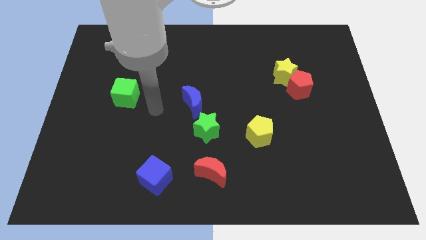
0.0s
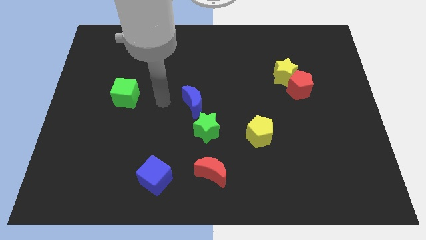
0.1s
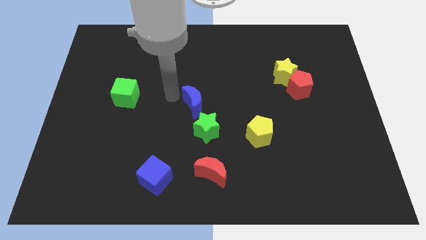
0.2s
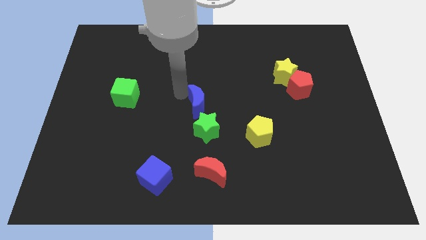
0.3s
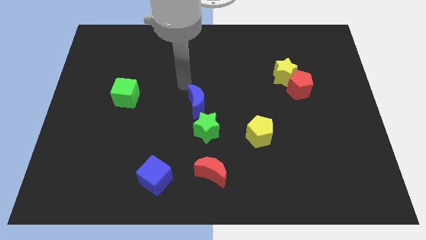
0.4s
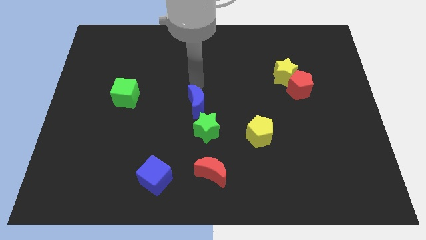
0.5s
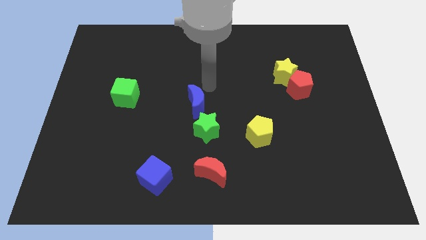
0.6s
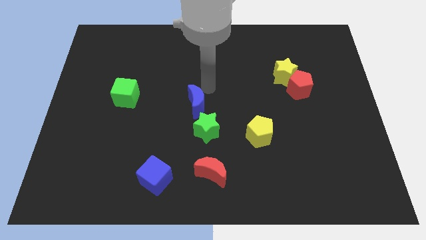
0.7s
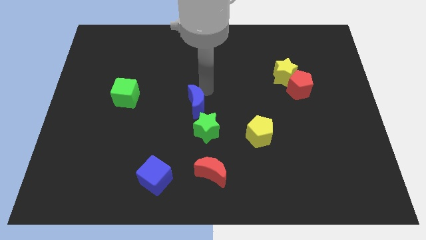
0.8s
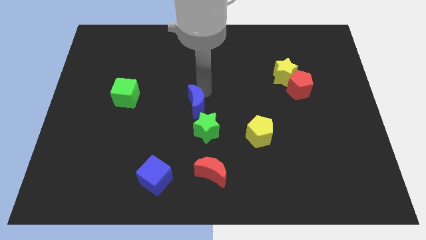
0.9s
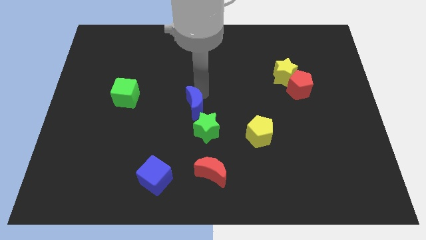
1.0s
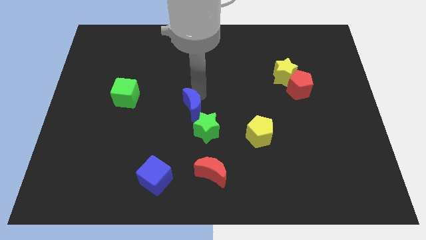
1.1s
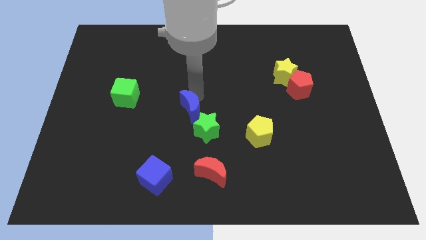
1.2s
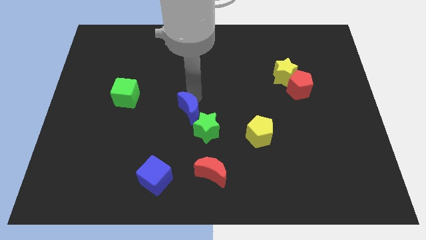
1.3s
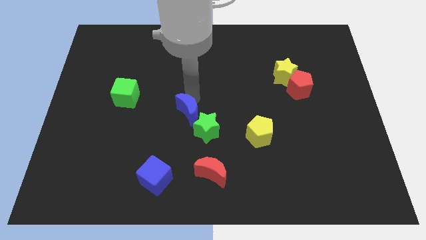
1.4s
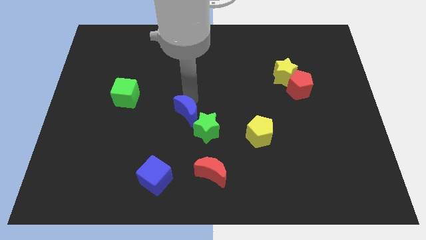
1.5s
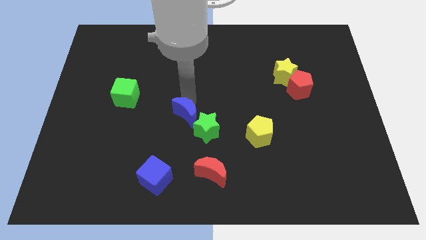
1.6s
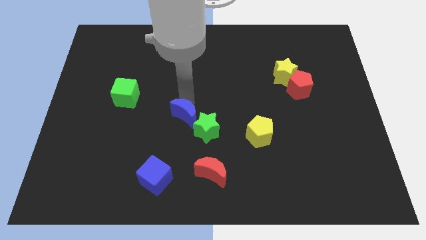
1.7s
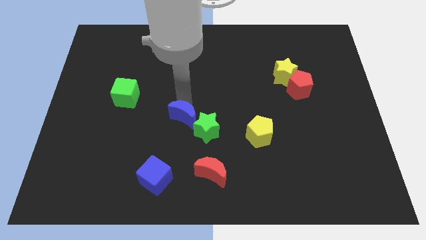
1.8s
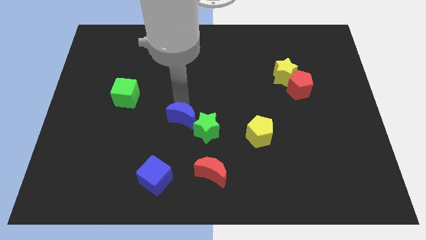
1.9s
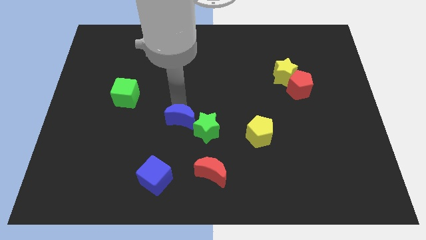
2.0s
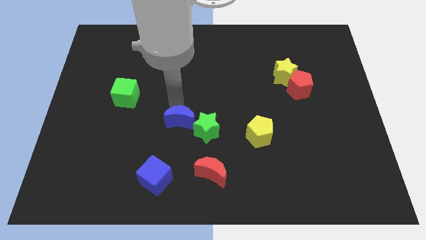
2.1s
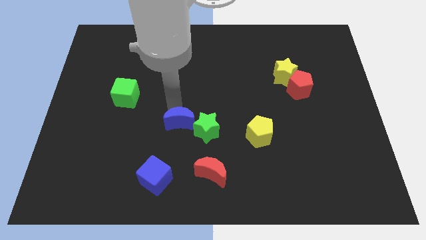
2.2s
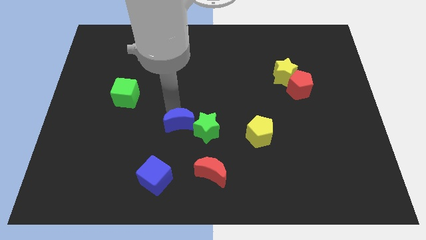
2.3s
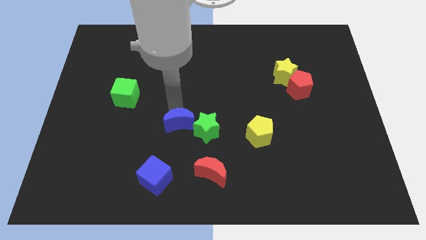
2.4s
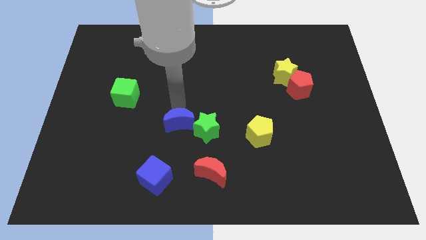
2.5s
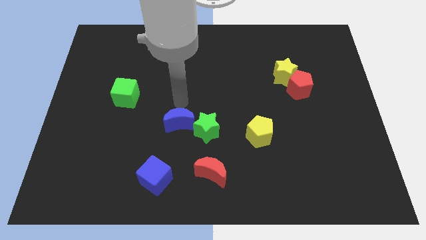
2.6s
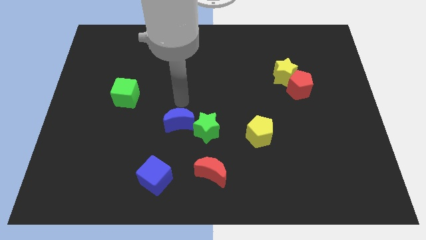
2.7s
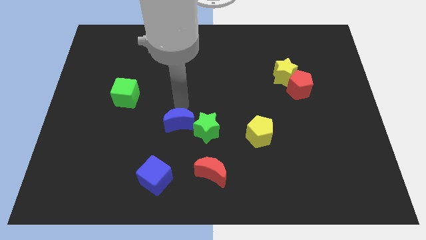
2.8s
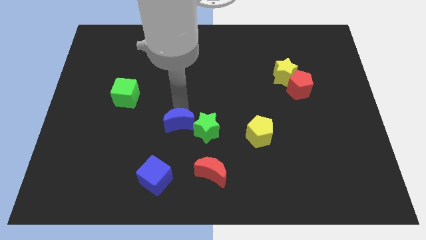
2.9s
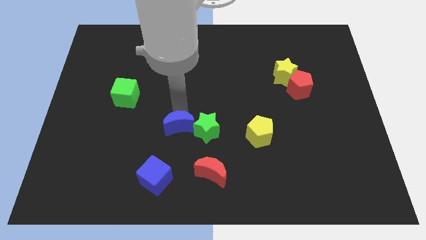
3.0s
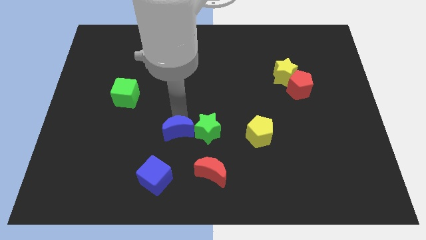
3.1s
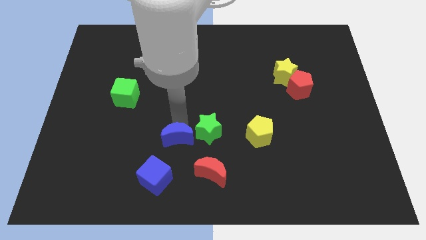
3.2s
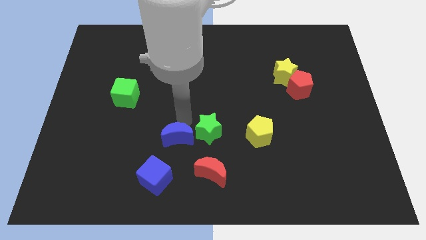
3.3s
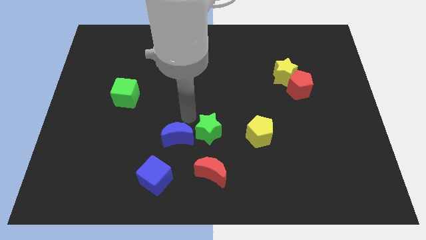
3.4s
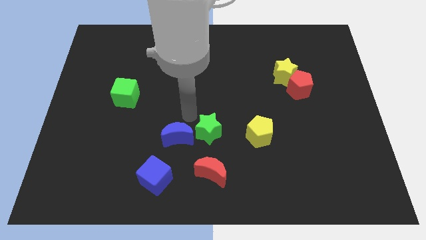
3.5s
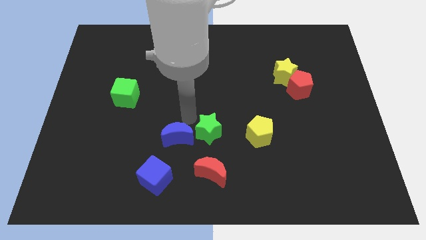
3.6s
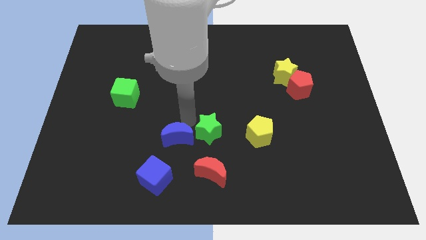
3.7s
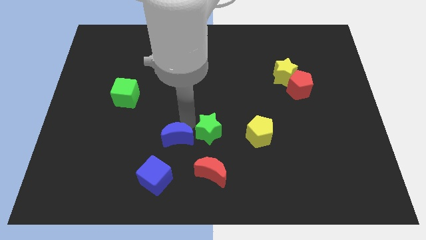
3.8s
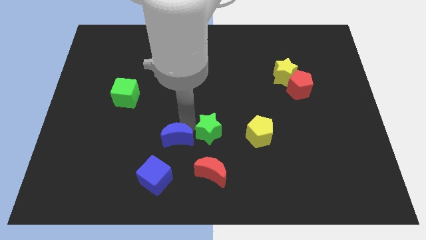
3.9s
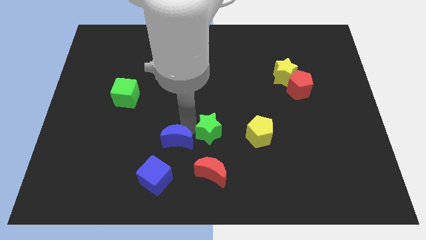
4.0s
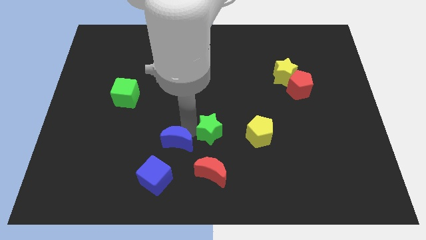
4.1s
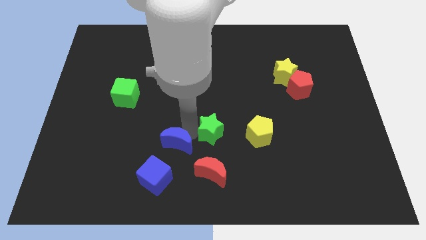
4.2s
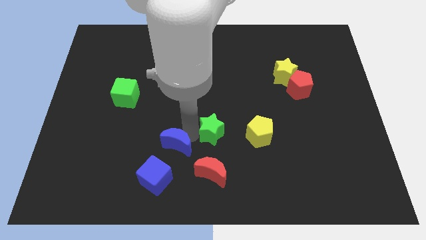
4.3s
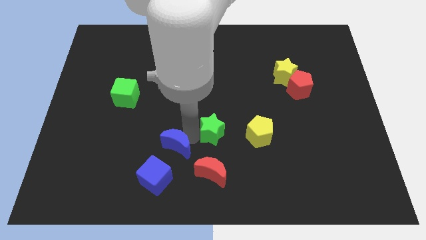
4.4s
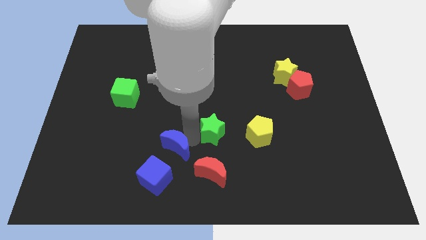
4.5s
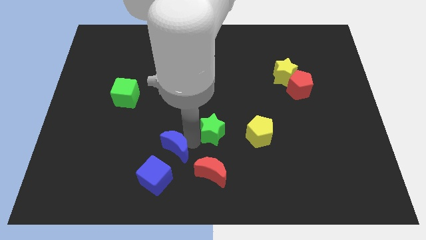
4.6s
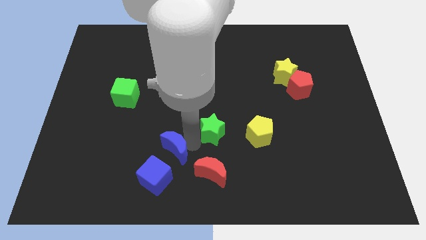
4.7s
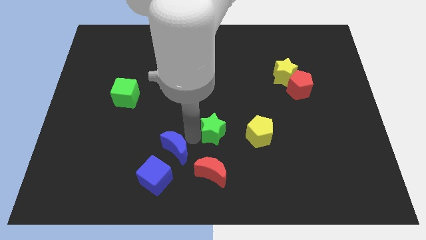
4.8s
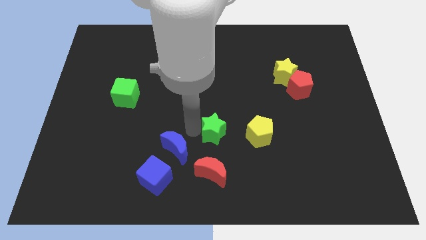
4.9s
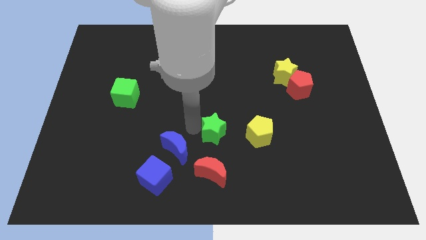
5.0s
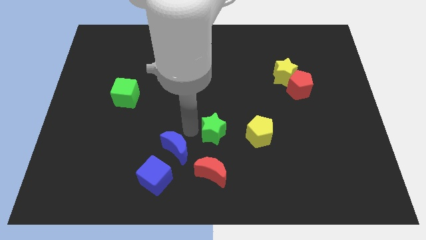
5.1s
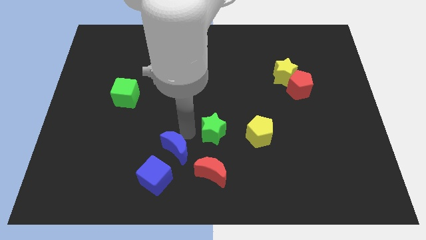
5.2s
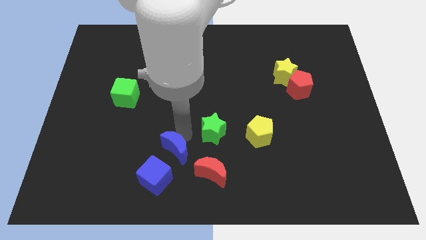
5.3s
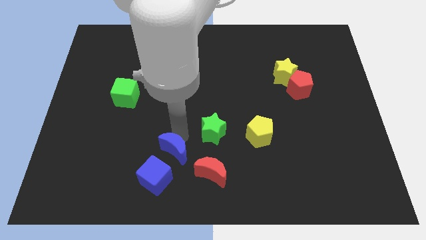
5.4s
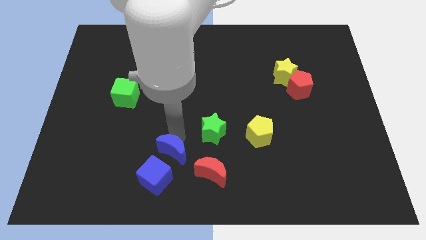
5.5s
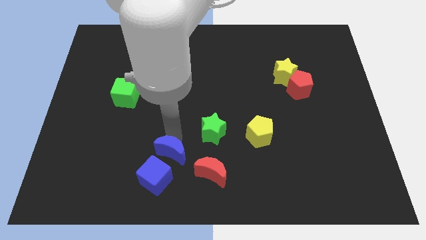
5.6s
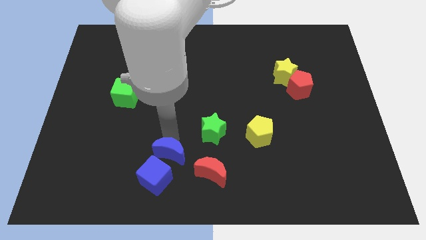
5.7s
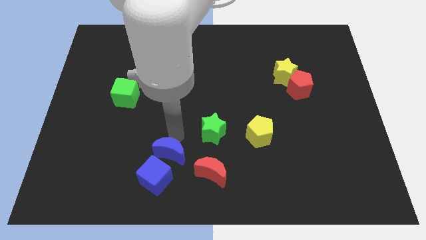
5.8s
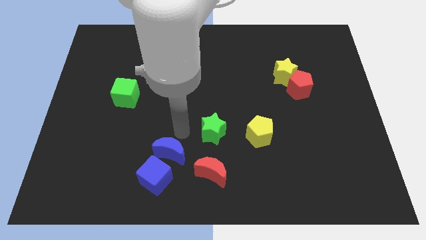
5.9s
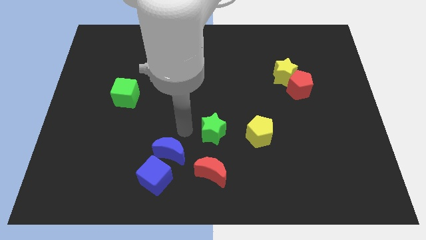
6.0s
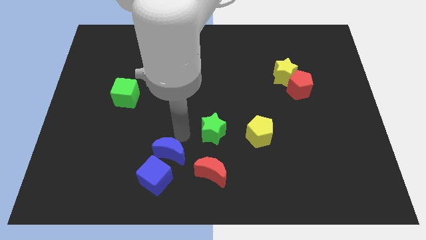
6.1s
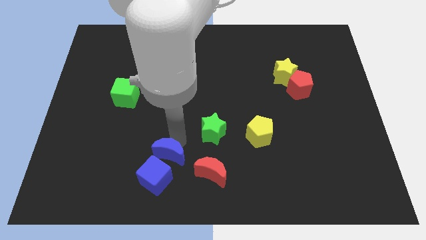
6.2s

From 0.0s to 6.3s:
put the blue moon towards the blue cube
